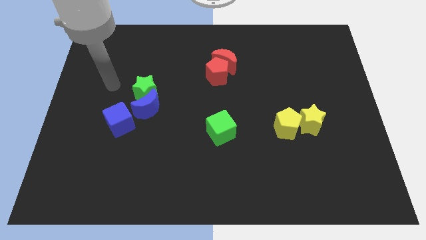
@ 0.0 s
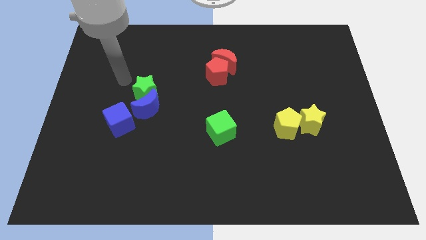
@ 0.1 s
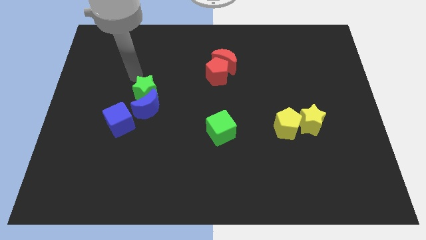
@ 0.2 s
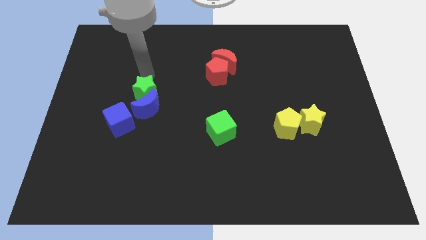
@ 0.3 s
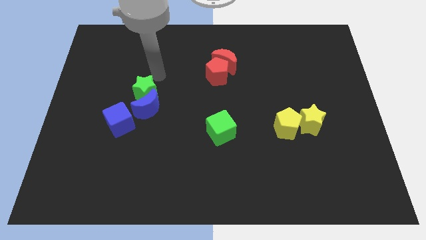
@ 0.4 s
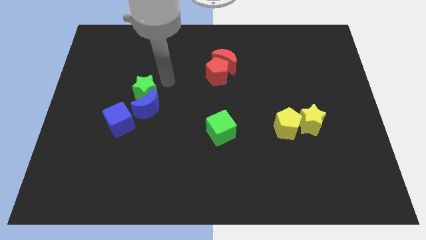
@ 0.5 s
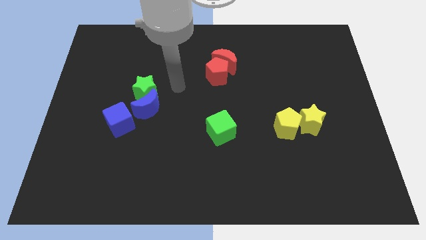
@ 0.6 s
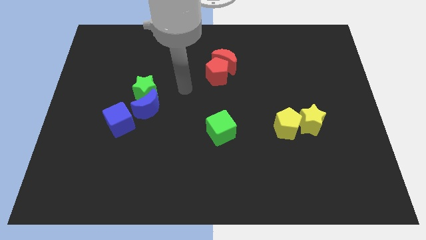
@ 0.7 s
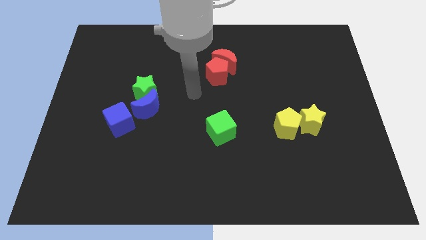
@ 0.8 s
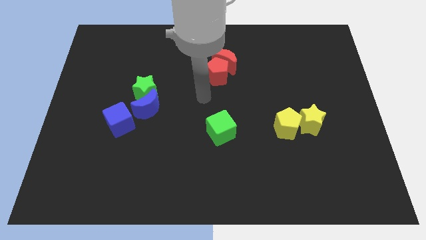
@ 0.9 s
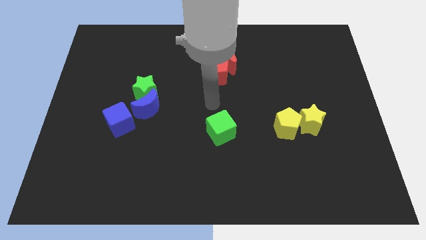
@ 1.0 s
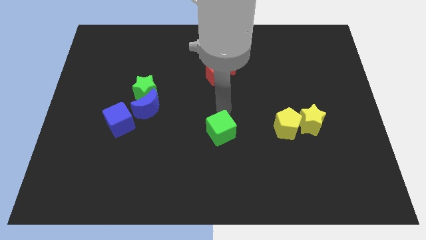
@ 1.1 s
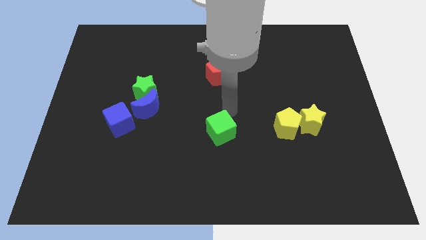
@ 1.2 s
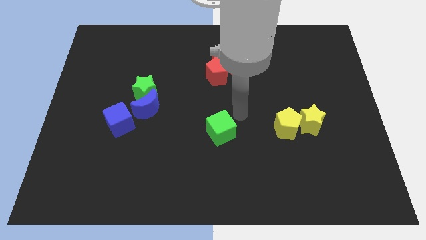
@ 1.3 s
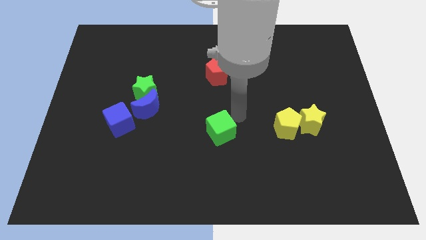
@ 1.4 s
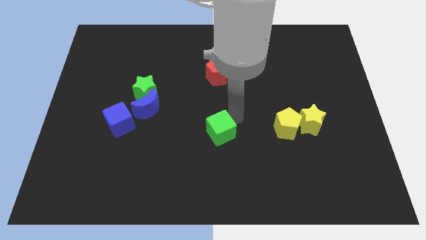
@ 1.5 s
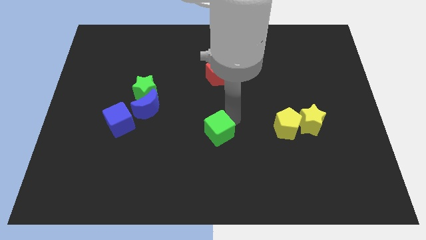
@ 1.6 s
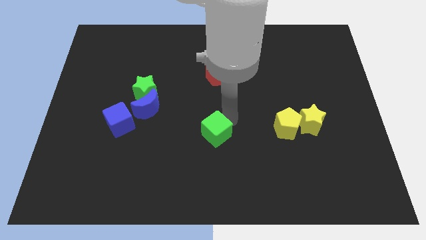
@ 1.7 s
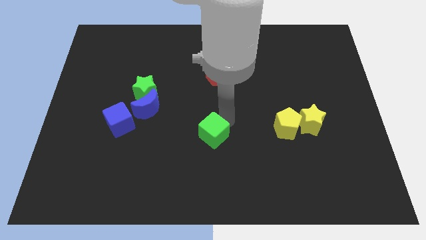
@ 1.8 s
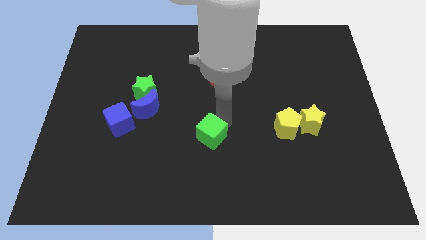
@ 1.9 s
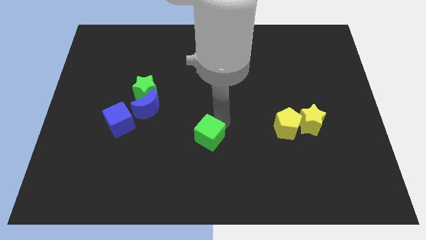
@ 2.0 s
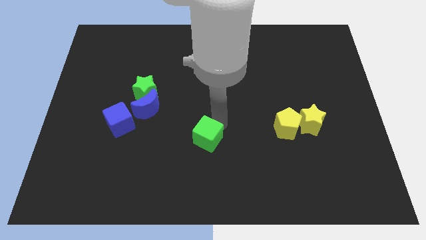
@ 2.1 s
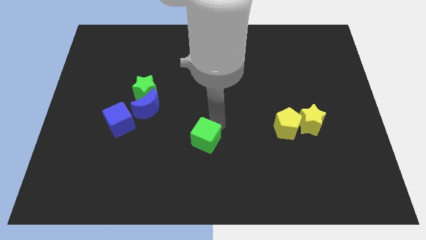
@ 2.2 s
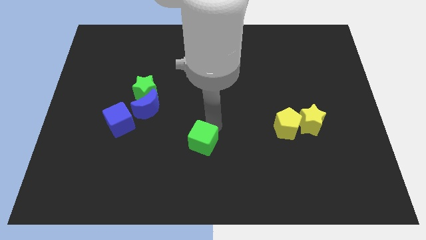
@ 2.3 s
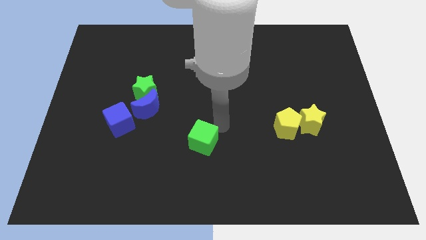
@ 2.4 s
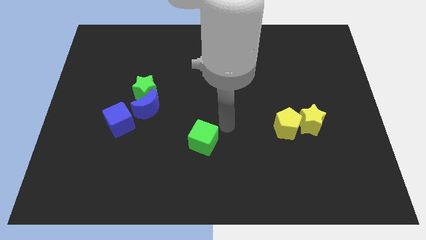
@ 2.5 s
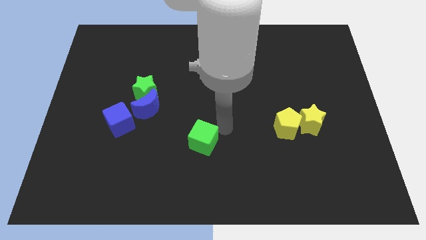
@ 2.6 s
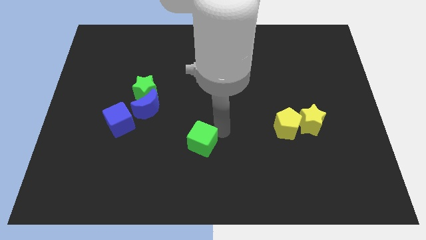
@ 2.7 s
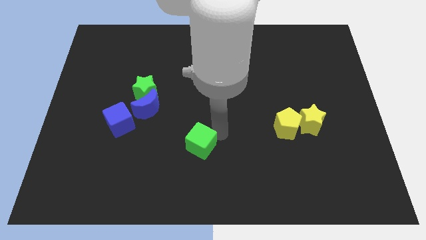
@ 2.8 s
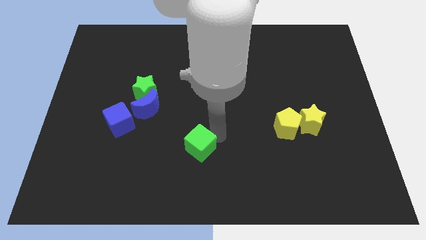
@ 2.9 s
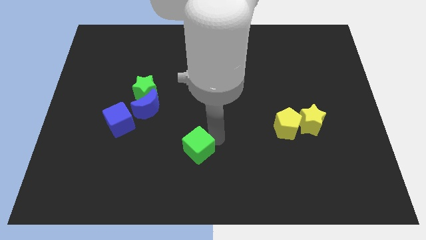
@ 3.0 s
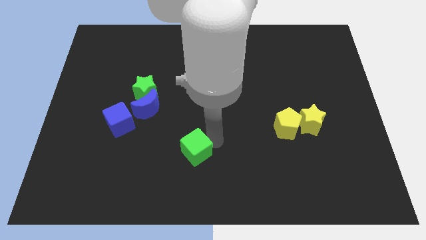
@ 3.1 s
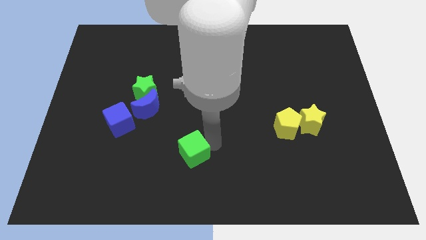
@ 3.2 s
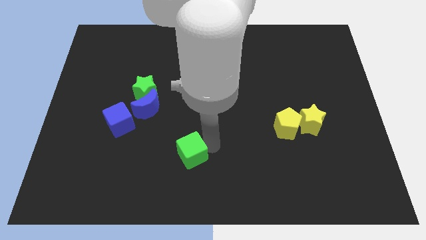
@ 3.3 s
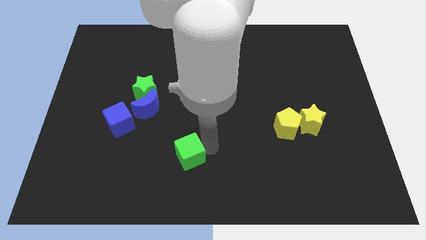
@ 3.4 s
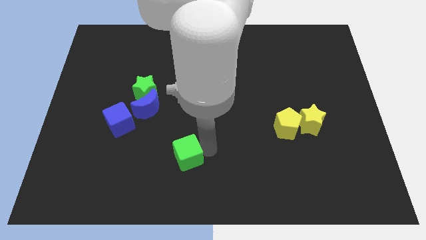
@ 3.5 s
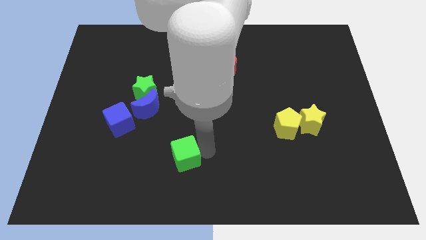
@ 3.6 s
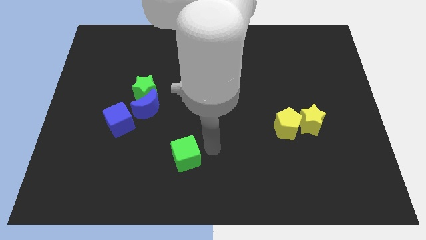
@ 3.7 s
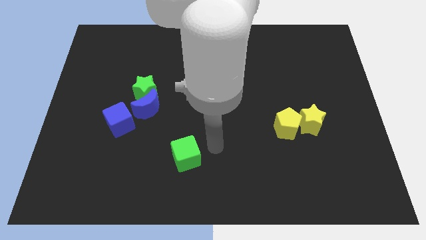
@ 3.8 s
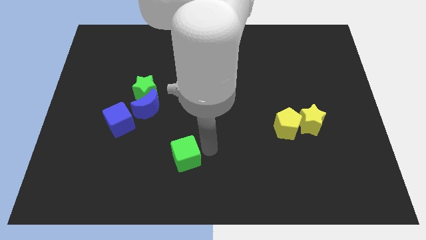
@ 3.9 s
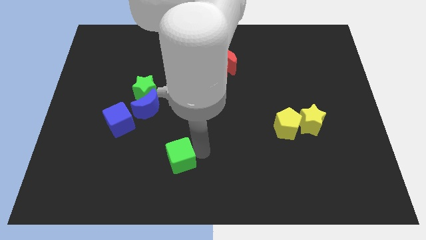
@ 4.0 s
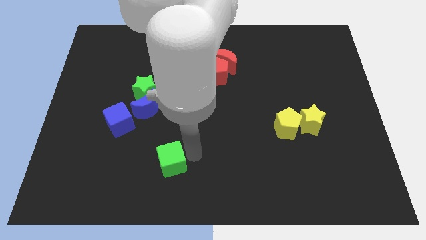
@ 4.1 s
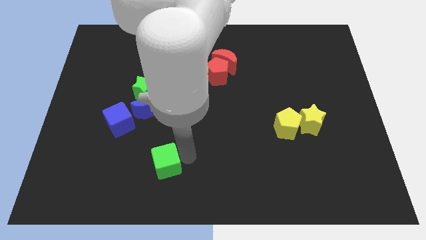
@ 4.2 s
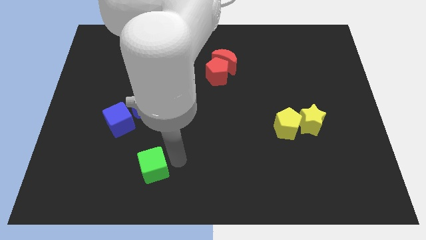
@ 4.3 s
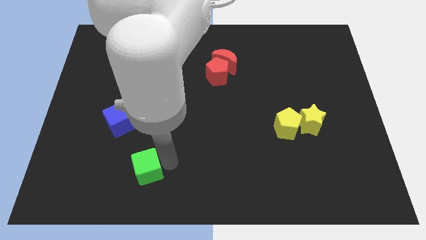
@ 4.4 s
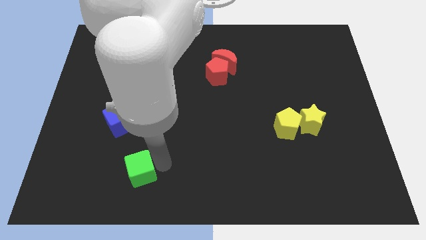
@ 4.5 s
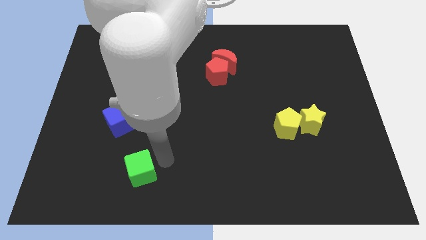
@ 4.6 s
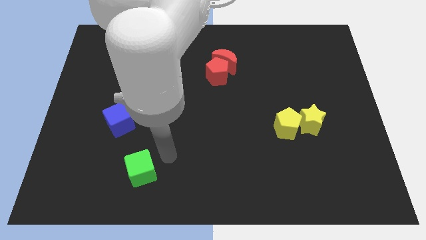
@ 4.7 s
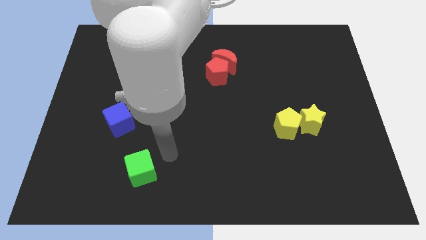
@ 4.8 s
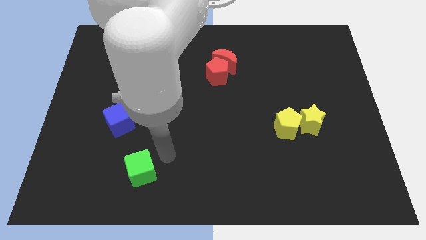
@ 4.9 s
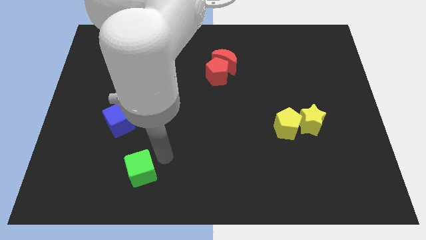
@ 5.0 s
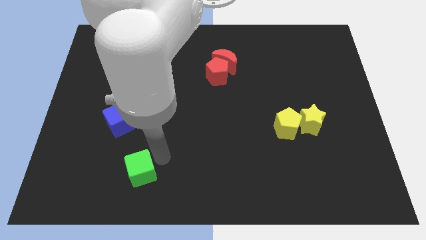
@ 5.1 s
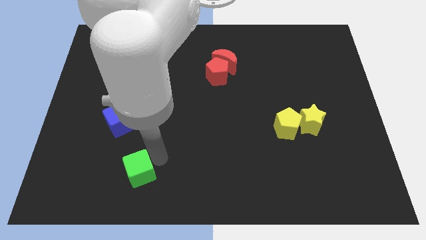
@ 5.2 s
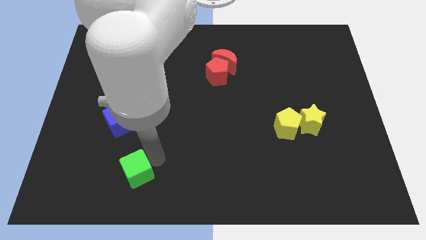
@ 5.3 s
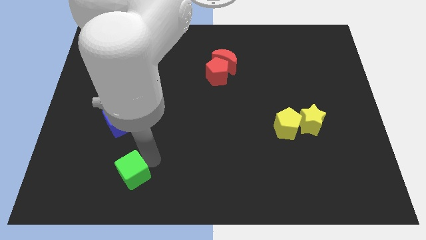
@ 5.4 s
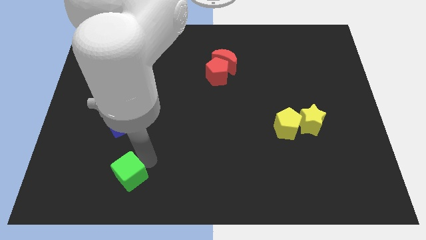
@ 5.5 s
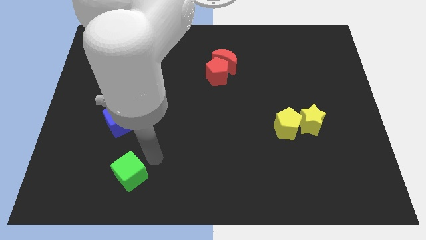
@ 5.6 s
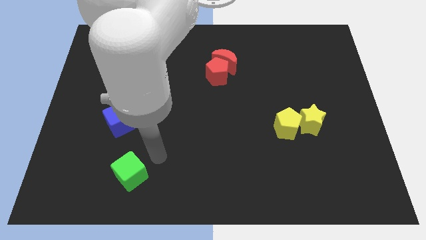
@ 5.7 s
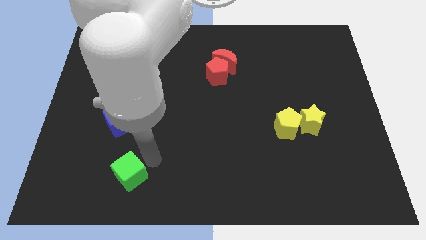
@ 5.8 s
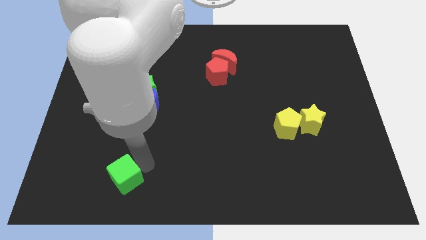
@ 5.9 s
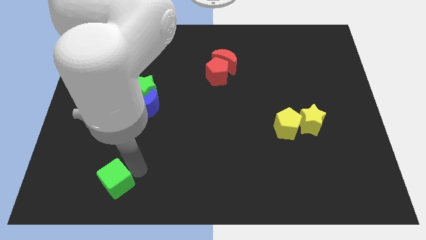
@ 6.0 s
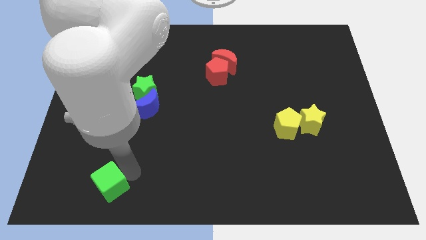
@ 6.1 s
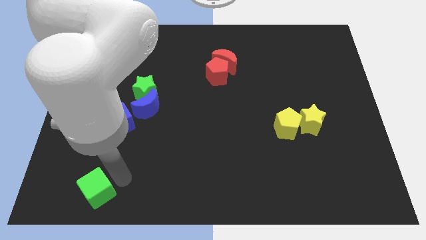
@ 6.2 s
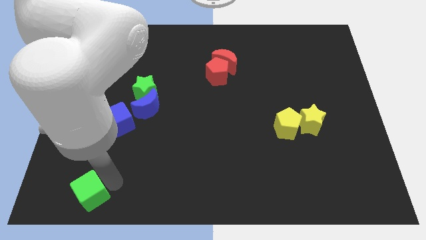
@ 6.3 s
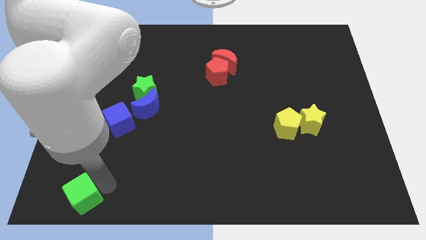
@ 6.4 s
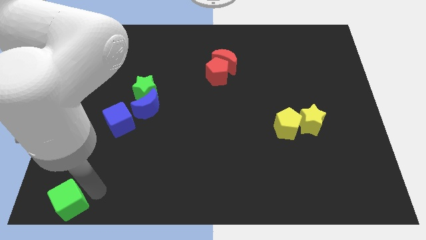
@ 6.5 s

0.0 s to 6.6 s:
slide the green cube to the lower left corner
